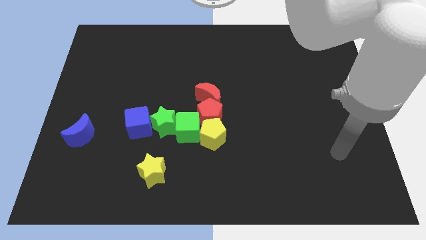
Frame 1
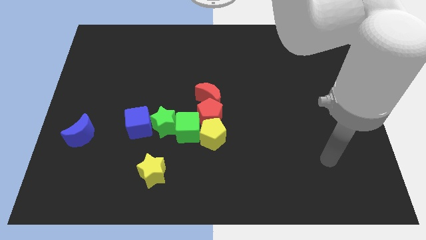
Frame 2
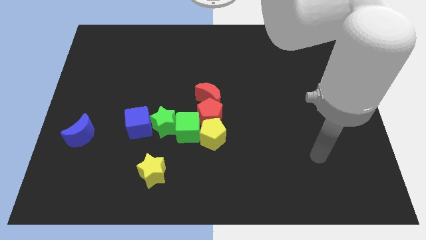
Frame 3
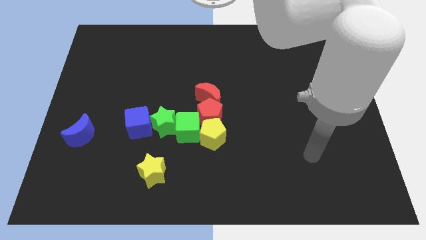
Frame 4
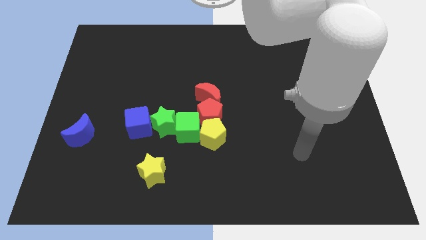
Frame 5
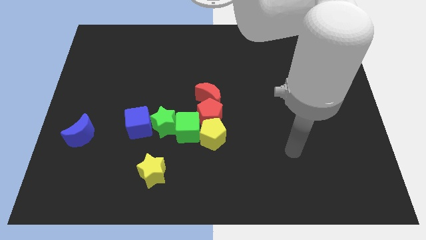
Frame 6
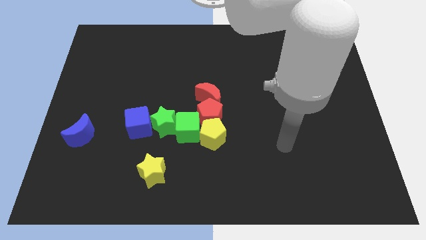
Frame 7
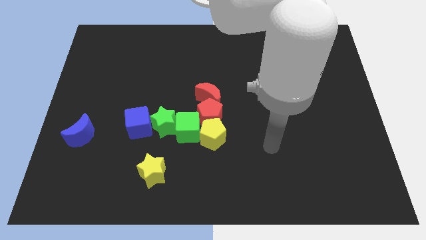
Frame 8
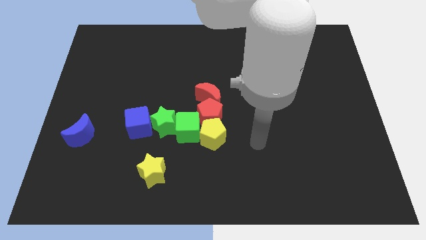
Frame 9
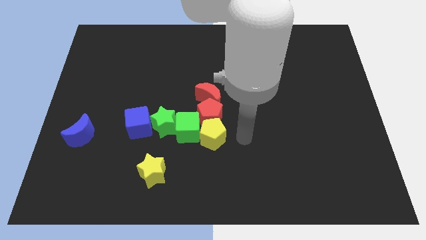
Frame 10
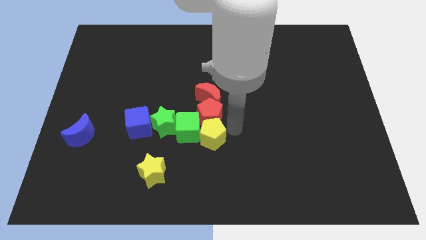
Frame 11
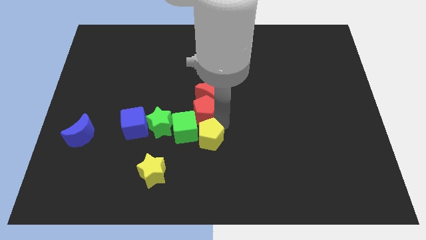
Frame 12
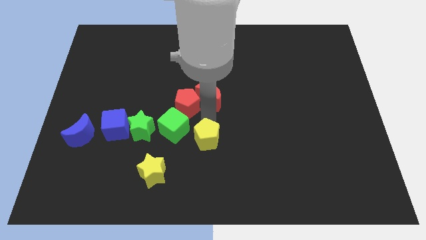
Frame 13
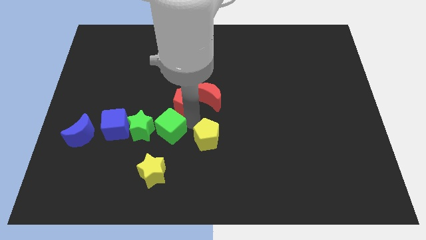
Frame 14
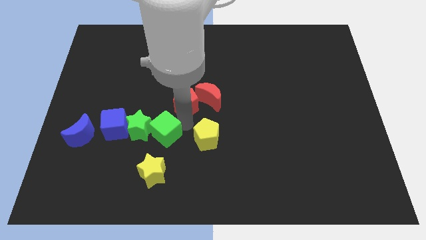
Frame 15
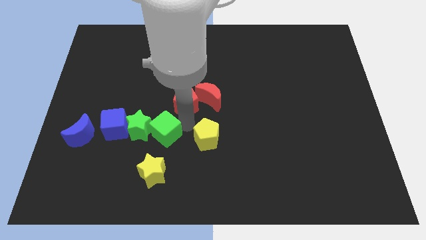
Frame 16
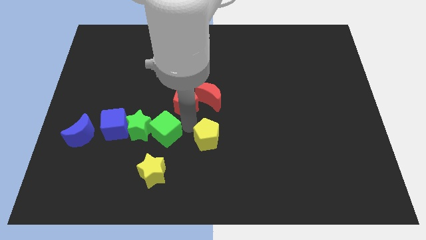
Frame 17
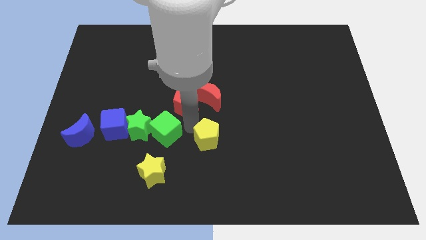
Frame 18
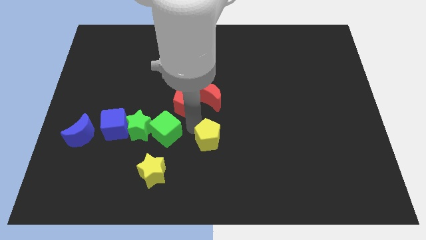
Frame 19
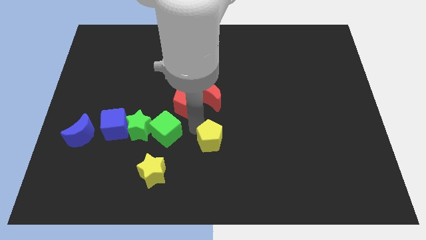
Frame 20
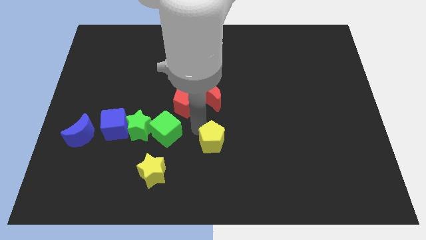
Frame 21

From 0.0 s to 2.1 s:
move the yellow pentagon away from the red pentagon and green cube

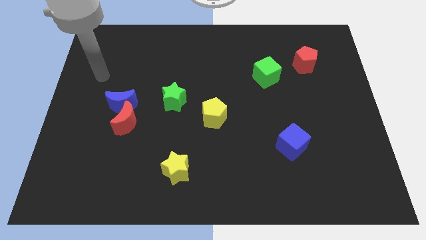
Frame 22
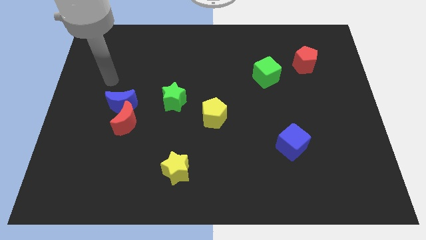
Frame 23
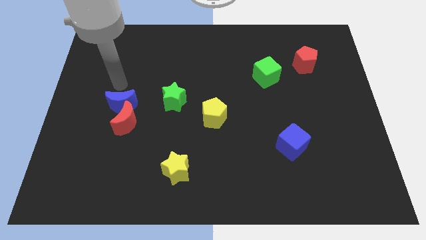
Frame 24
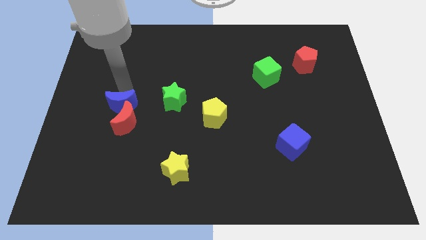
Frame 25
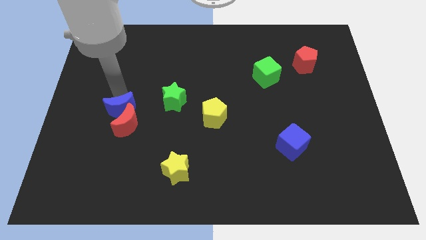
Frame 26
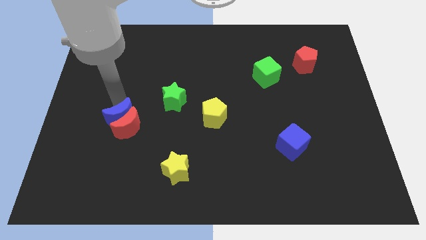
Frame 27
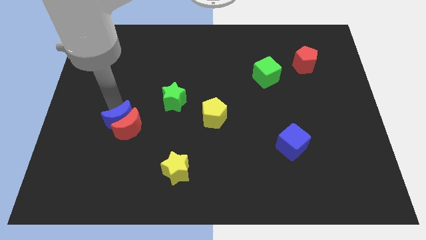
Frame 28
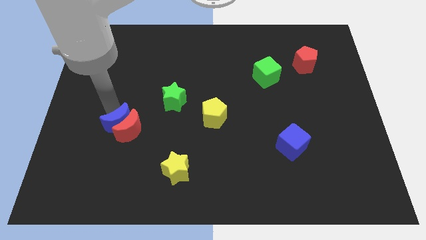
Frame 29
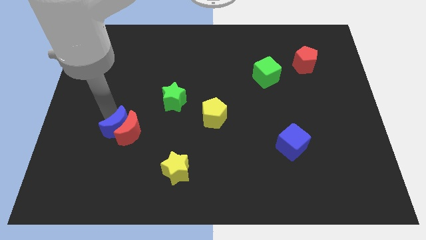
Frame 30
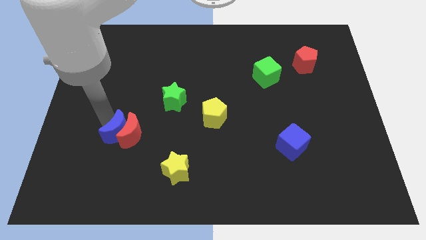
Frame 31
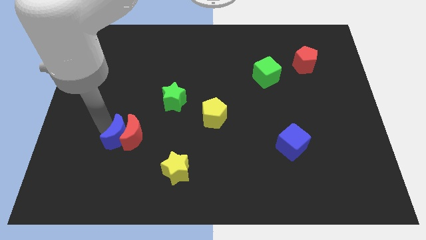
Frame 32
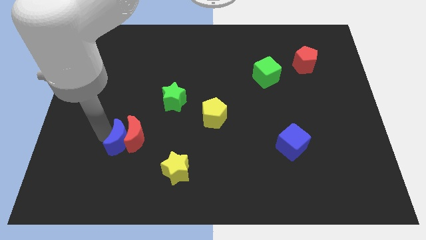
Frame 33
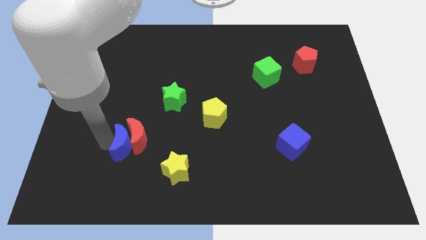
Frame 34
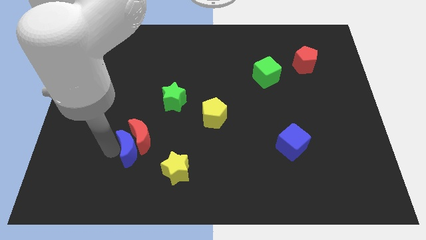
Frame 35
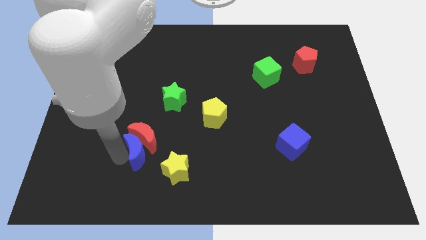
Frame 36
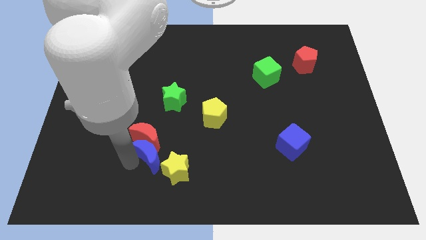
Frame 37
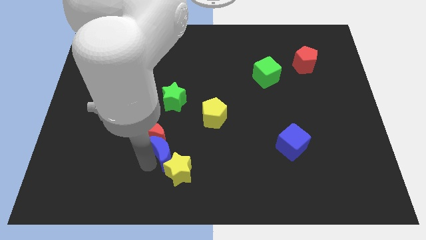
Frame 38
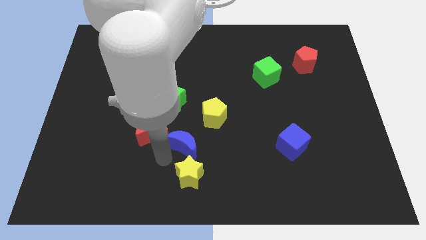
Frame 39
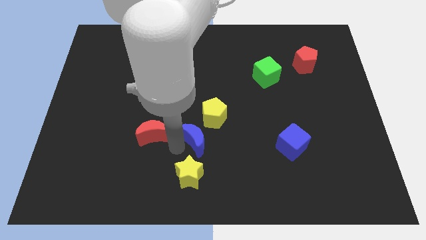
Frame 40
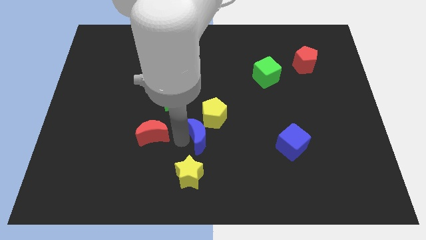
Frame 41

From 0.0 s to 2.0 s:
pull the red moon apart from the blue moon

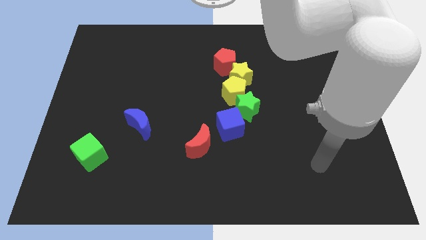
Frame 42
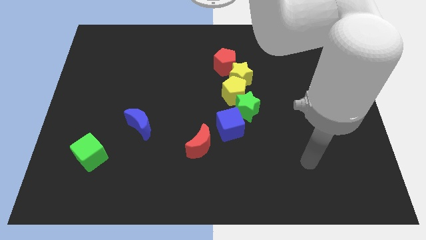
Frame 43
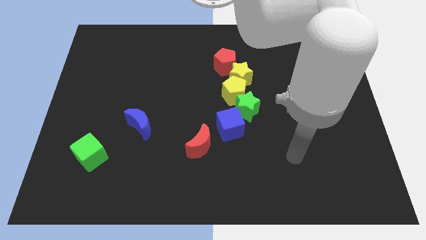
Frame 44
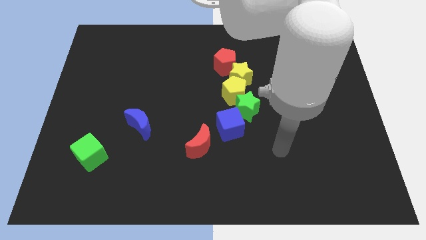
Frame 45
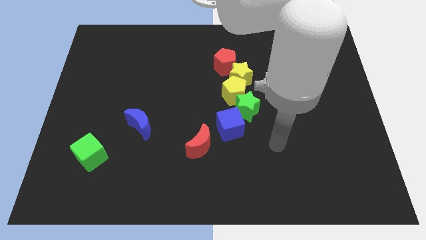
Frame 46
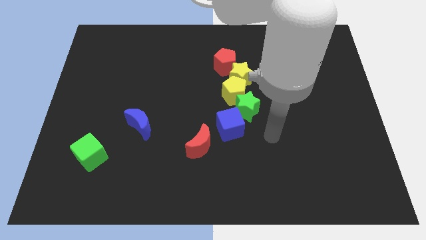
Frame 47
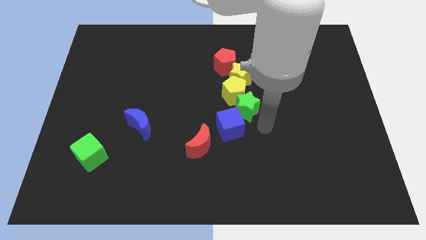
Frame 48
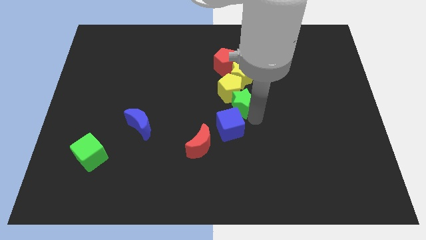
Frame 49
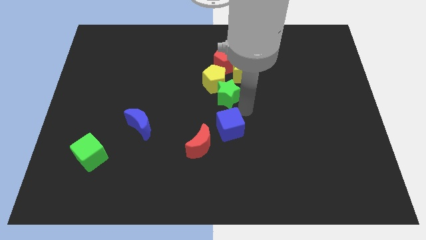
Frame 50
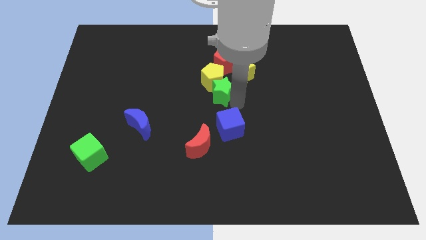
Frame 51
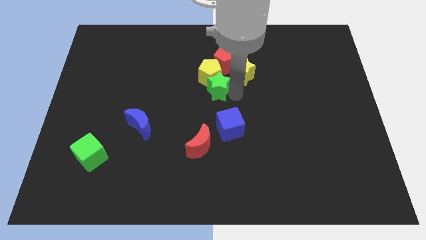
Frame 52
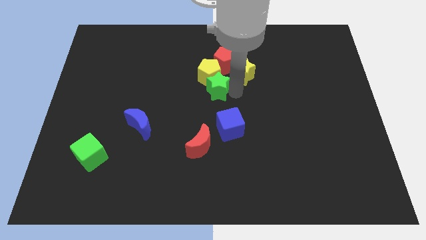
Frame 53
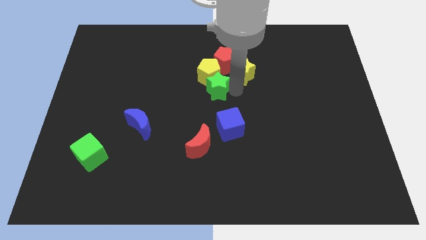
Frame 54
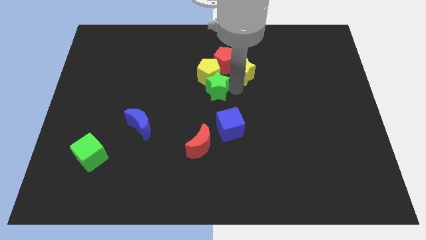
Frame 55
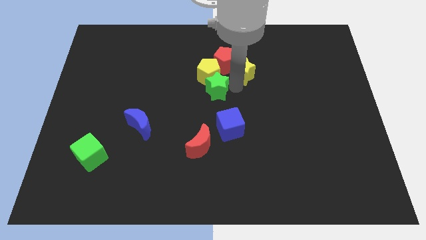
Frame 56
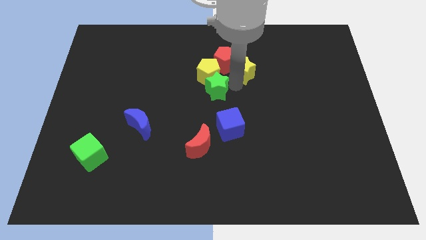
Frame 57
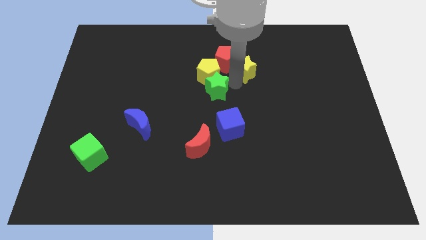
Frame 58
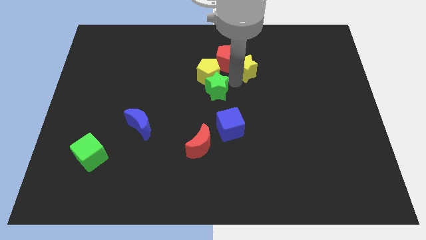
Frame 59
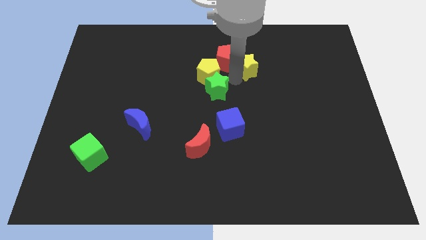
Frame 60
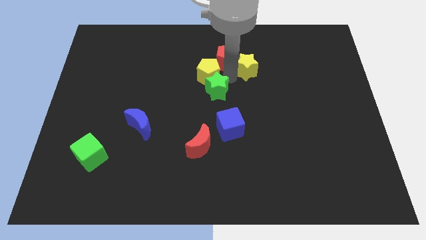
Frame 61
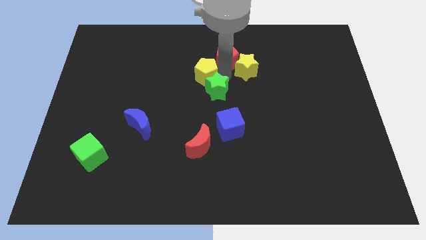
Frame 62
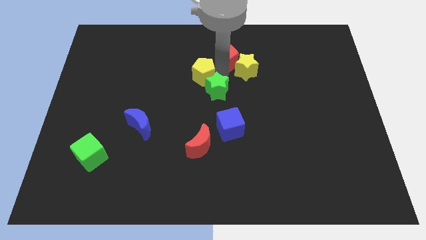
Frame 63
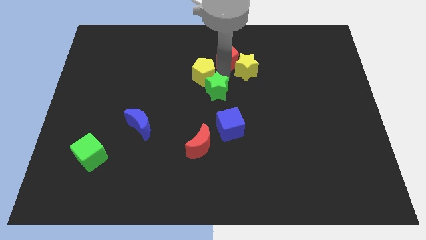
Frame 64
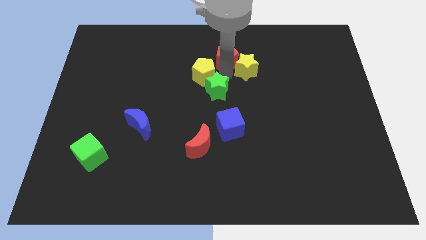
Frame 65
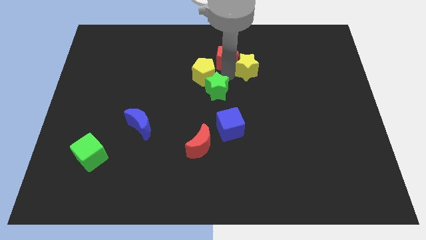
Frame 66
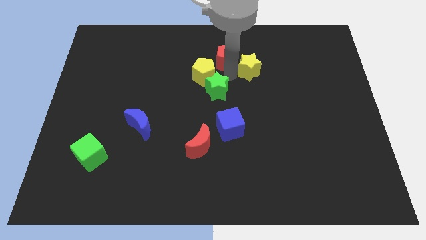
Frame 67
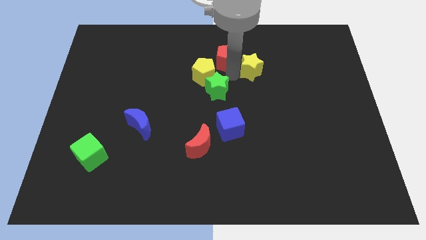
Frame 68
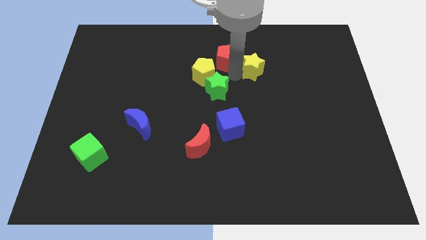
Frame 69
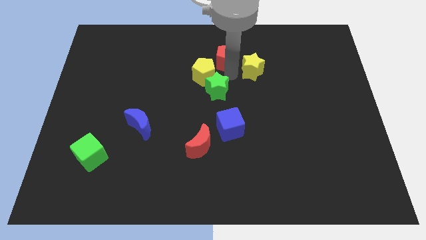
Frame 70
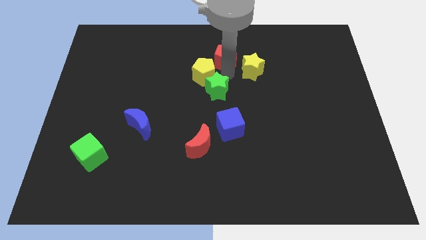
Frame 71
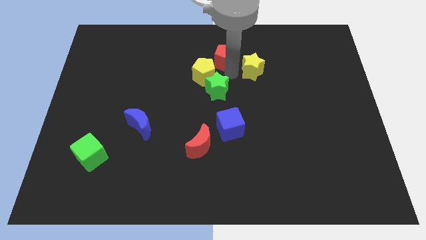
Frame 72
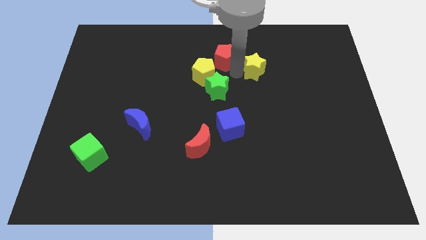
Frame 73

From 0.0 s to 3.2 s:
pull the yellow star apart from the group

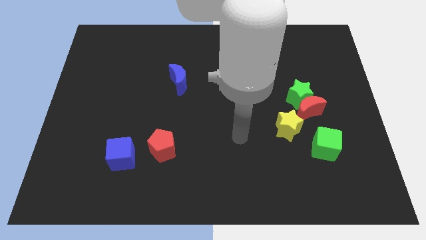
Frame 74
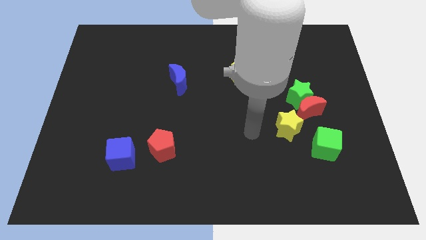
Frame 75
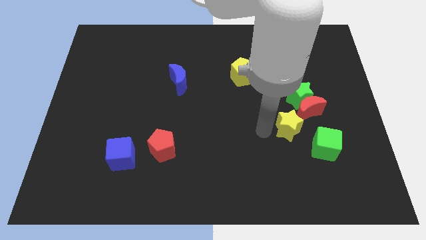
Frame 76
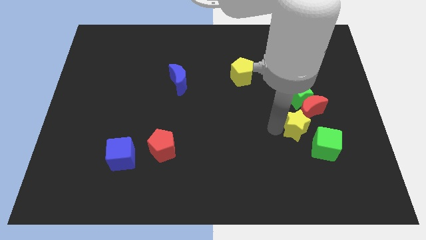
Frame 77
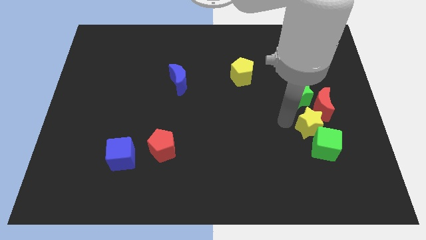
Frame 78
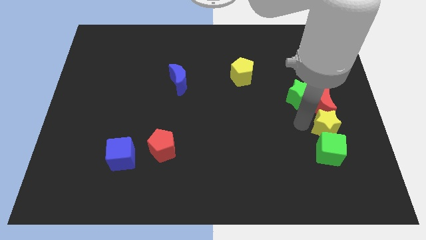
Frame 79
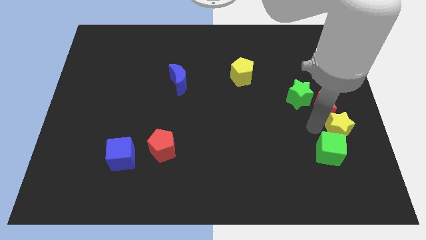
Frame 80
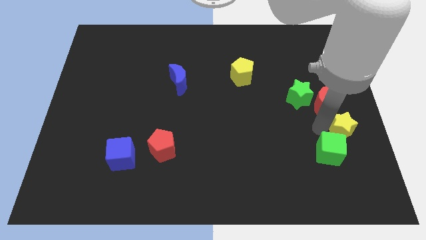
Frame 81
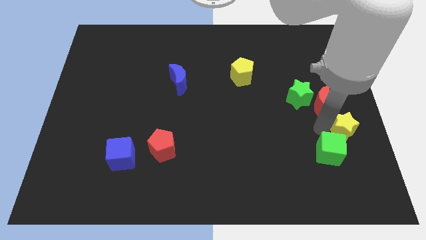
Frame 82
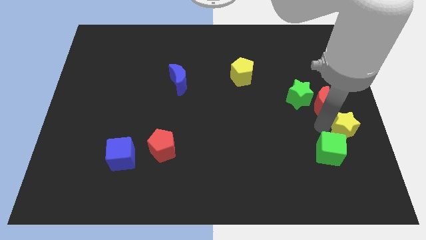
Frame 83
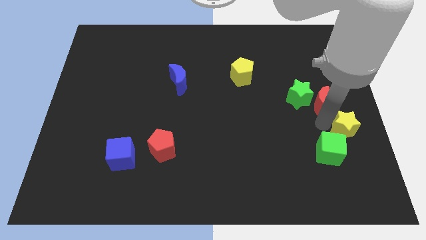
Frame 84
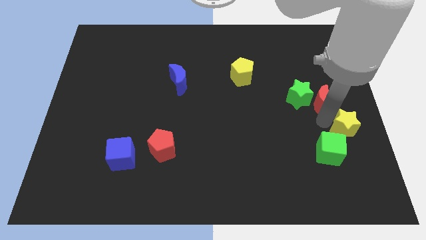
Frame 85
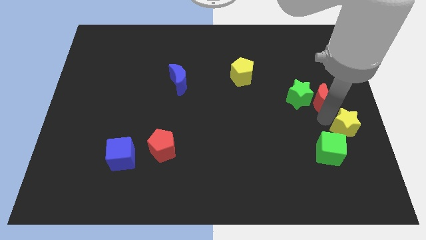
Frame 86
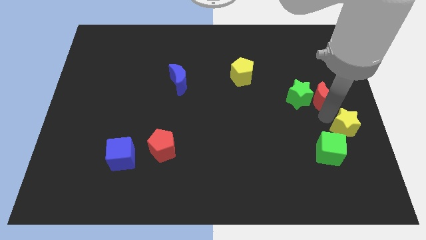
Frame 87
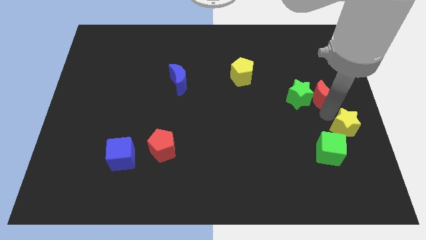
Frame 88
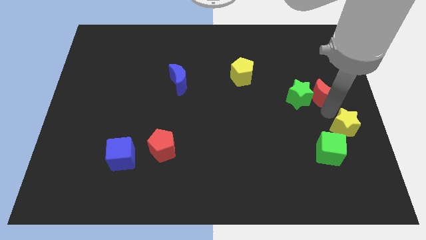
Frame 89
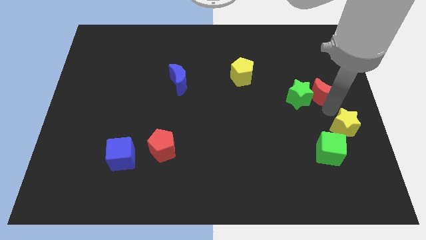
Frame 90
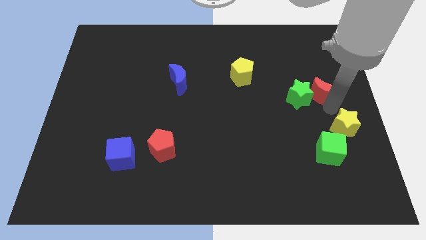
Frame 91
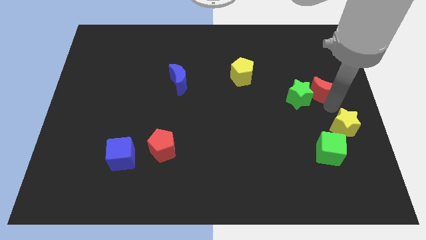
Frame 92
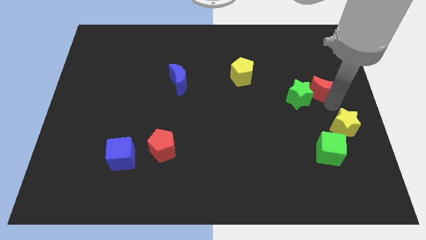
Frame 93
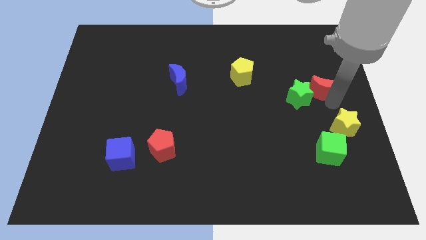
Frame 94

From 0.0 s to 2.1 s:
pull the red moon apart from the green star, yellow star, and green cube

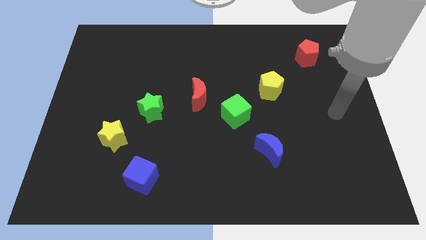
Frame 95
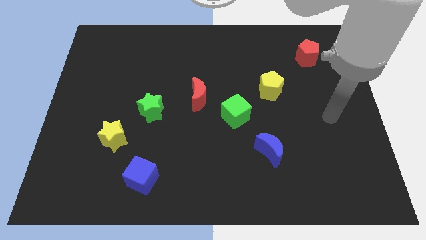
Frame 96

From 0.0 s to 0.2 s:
move the red moon away from the green cube
